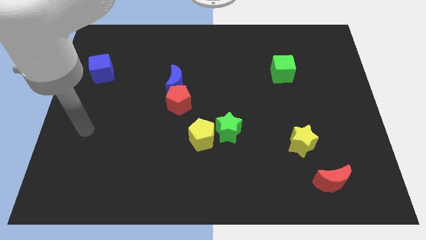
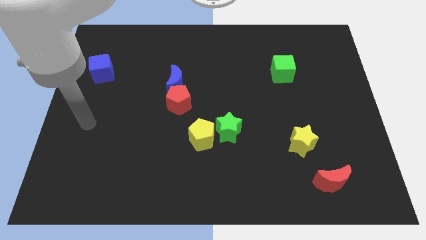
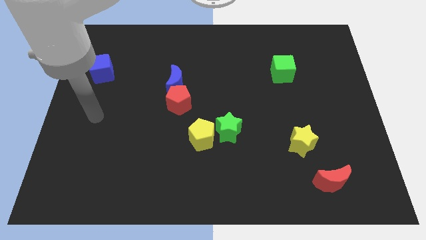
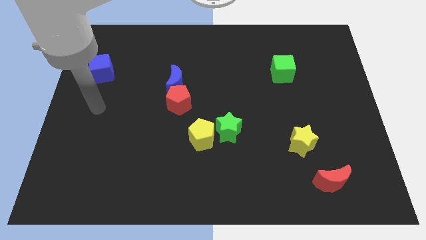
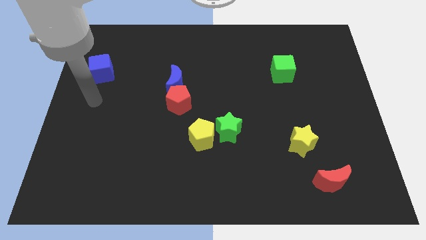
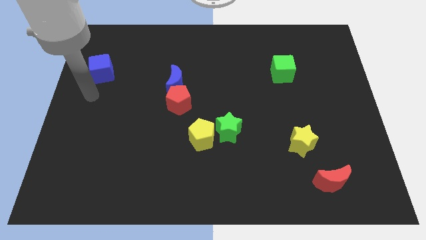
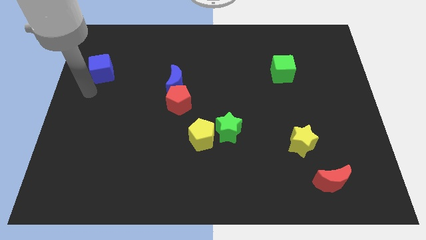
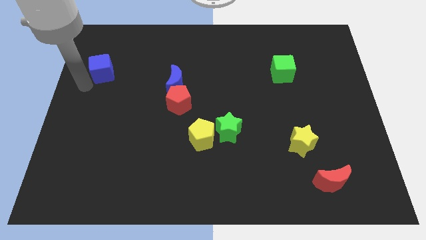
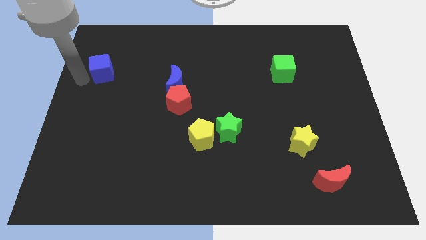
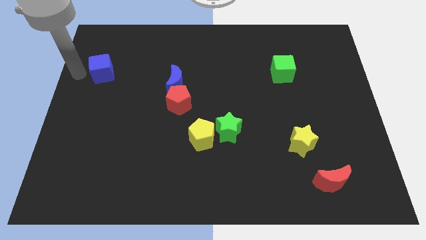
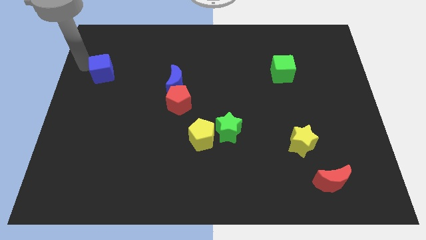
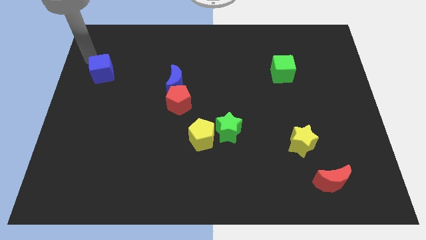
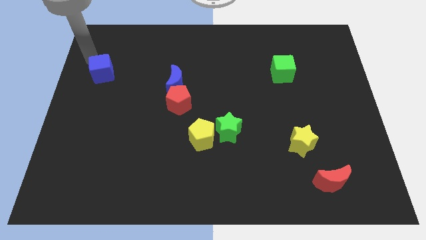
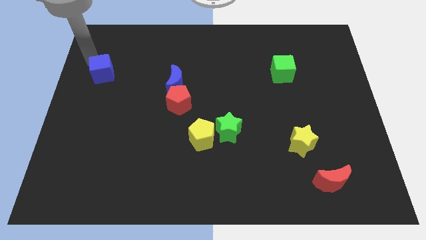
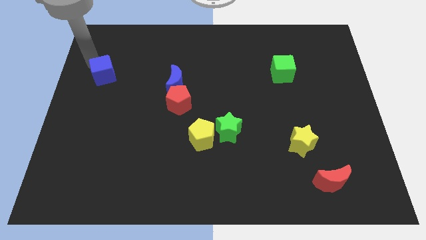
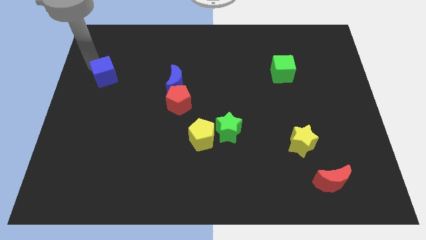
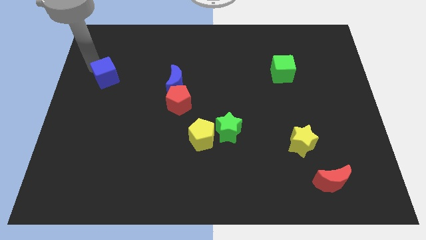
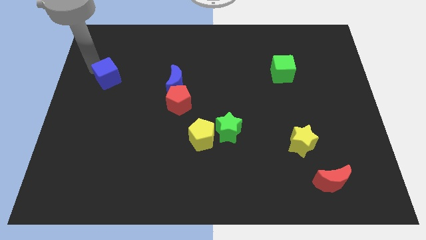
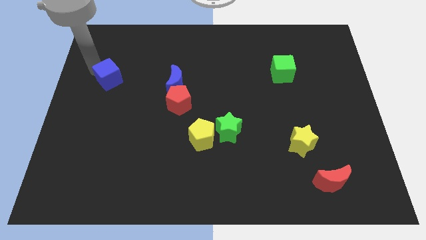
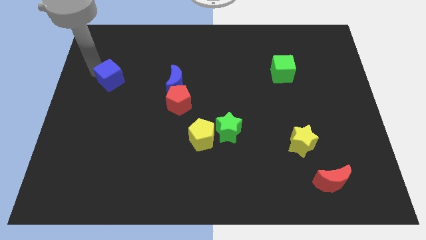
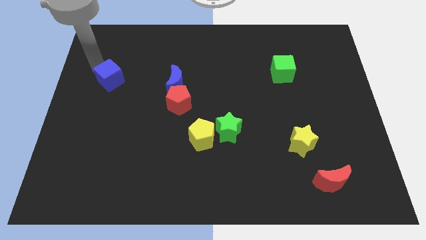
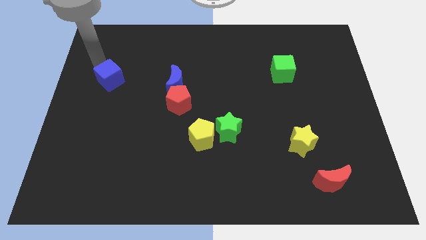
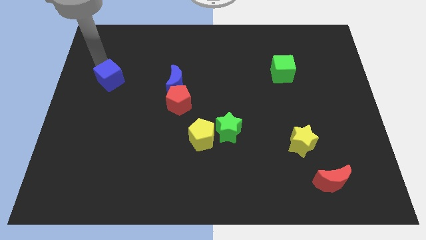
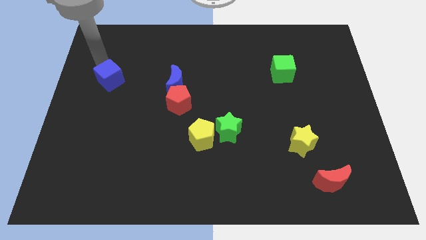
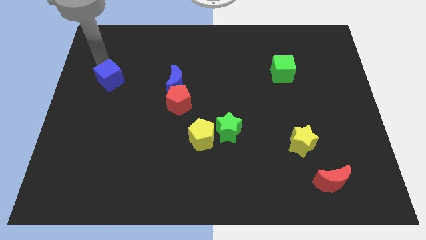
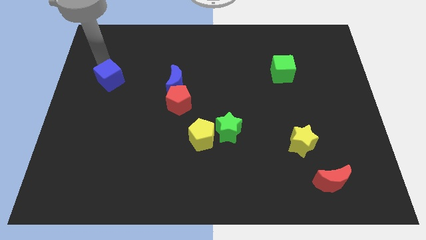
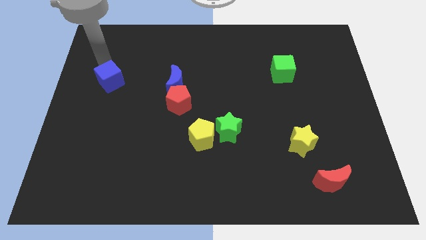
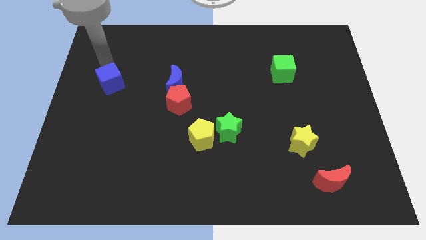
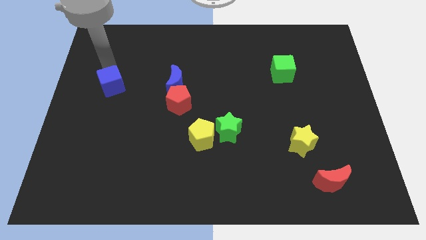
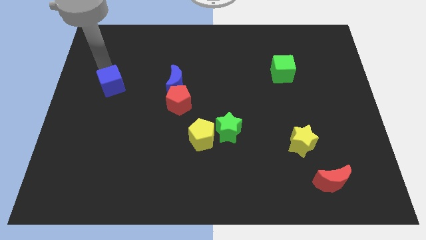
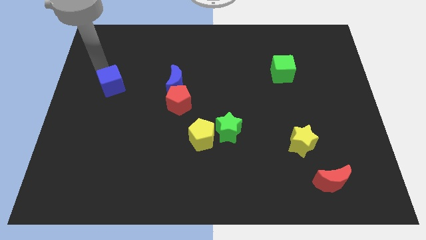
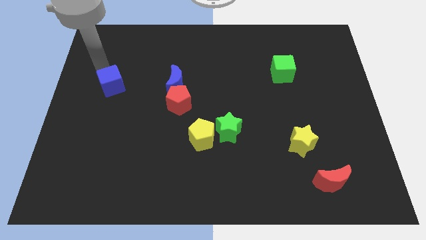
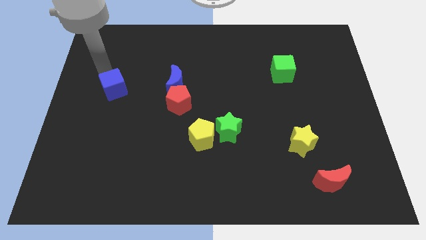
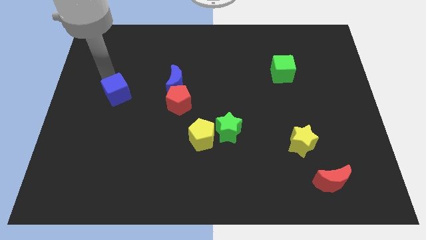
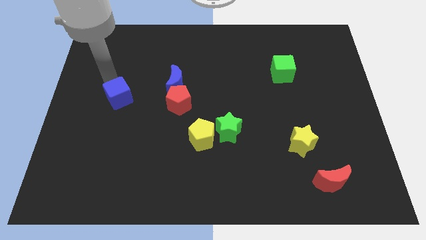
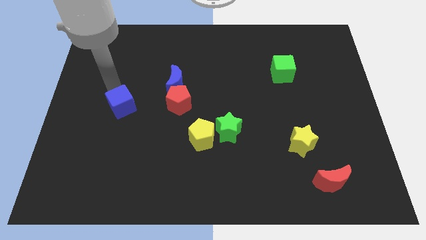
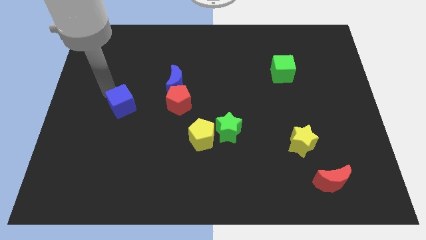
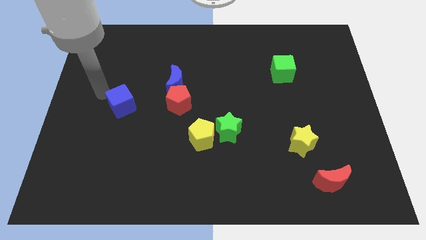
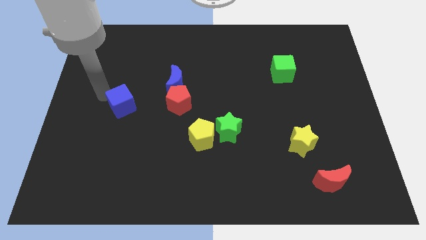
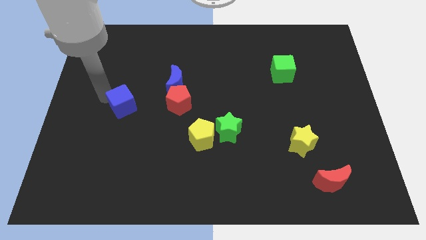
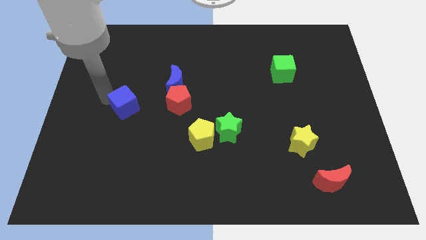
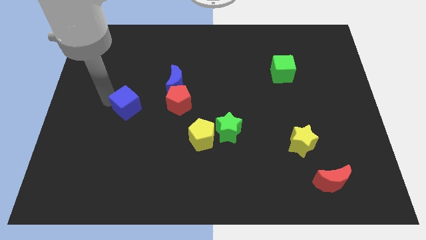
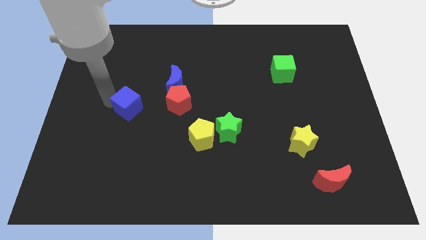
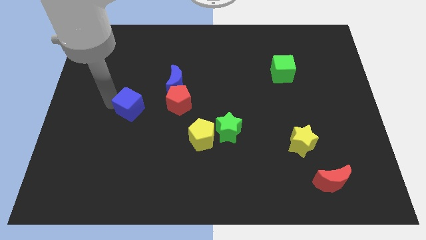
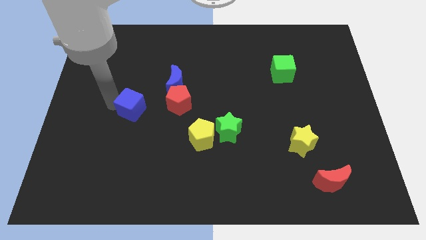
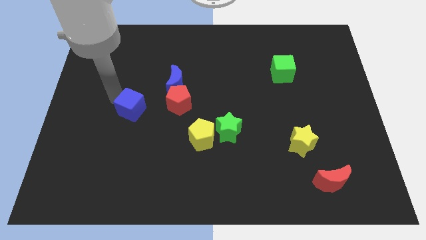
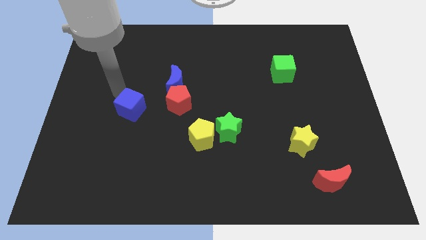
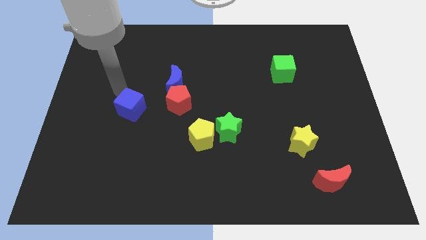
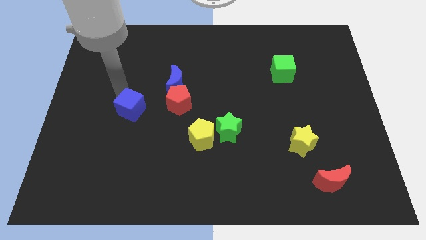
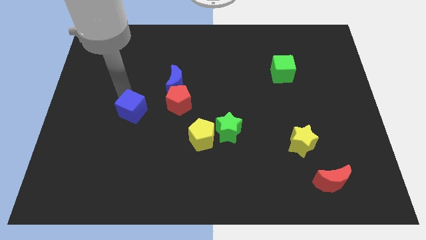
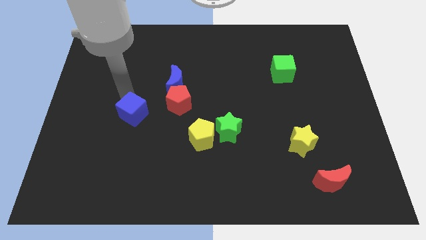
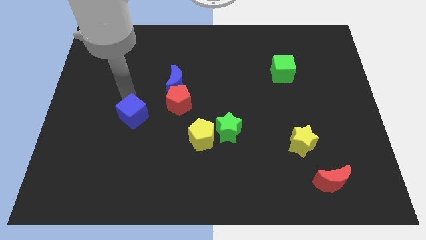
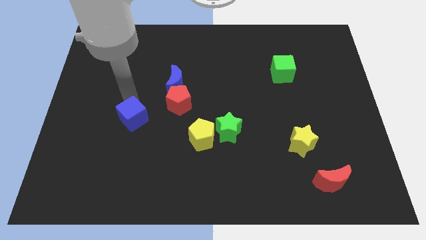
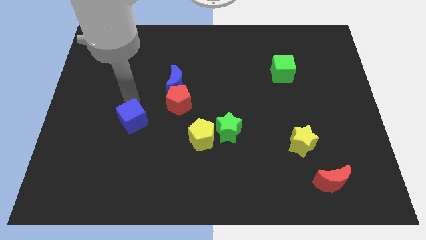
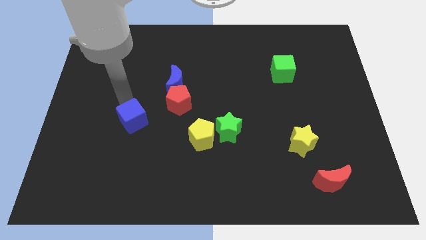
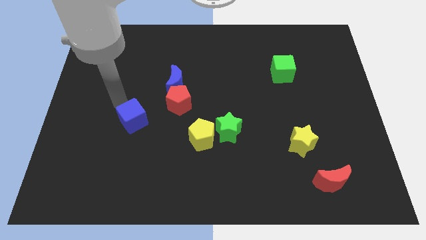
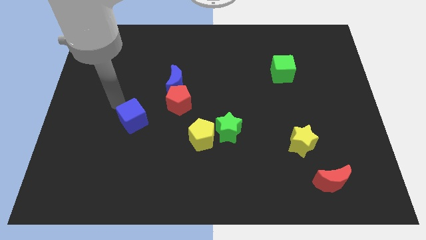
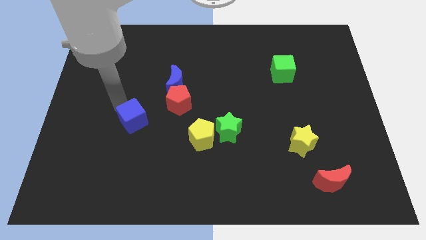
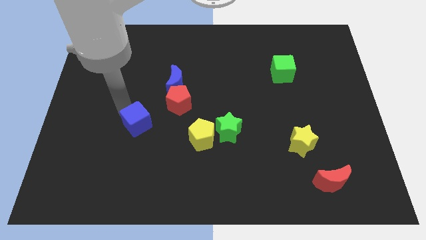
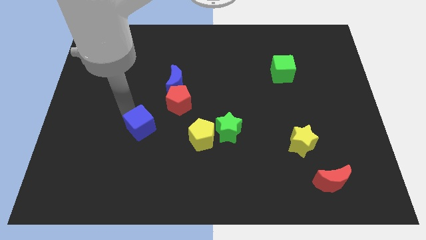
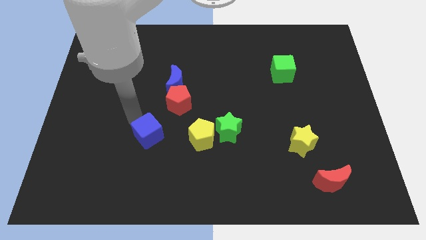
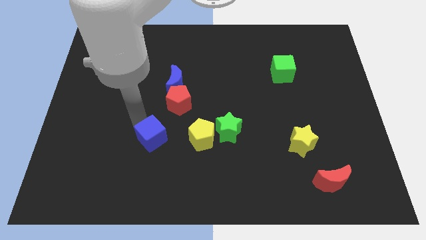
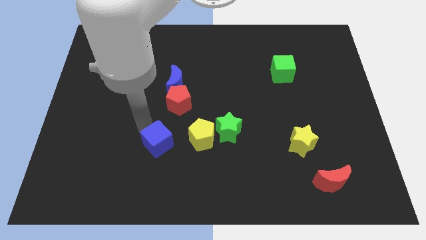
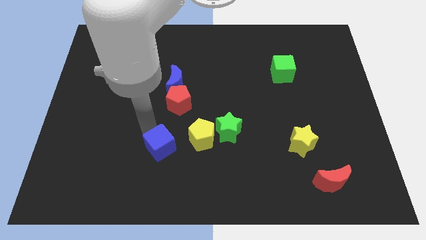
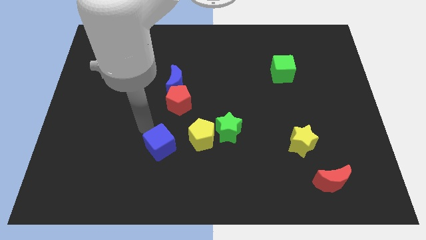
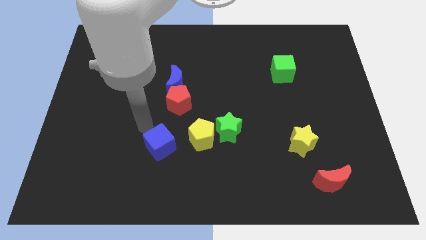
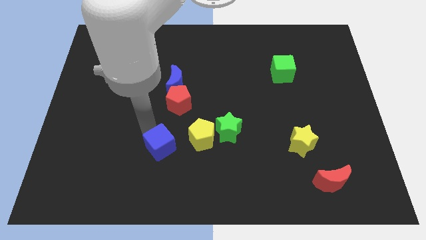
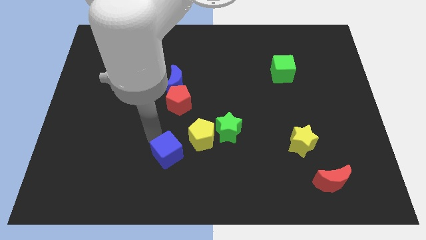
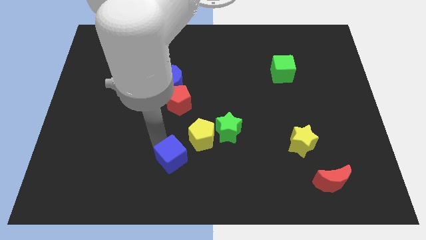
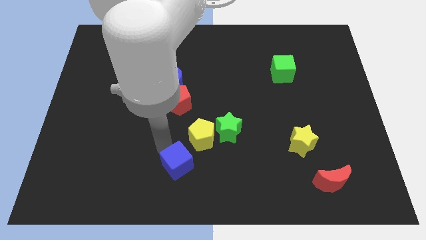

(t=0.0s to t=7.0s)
move the blue cube to the bottom
